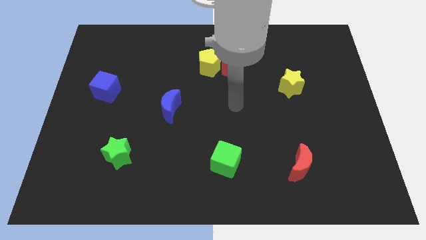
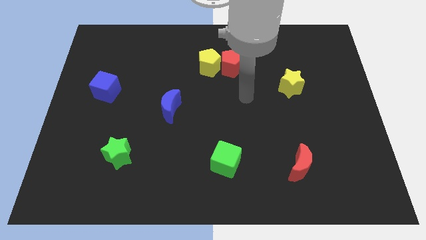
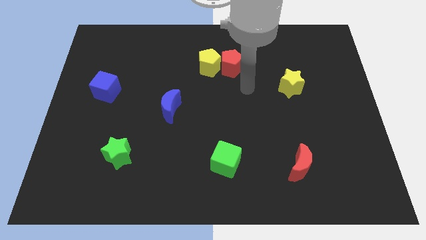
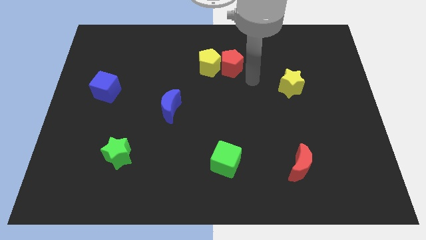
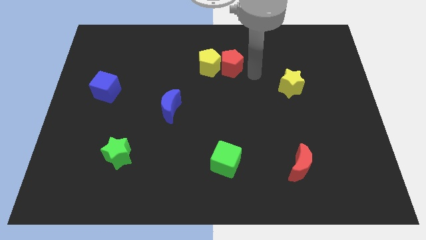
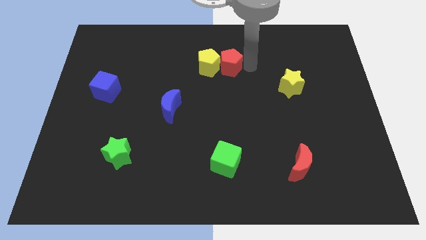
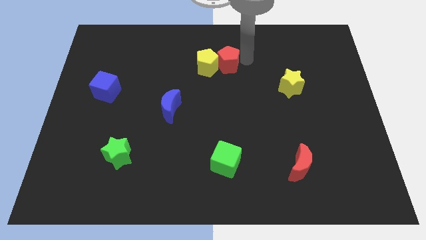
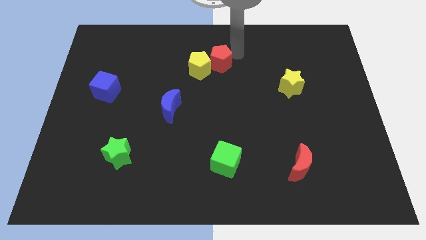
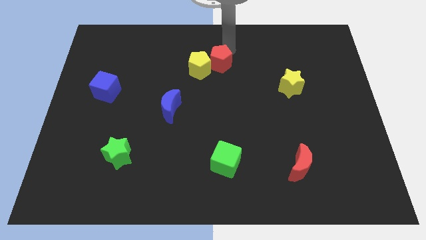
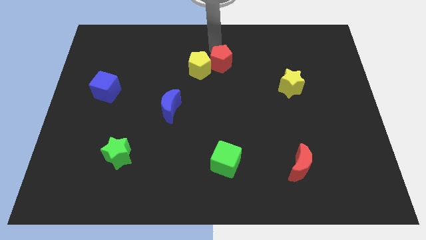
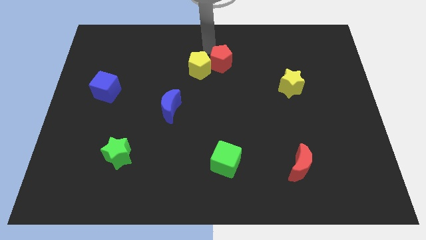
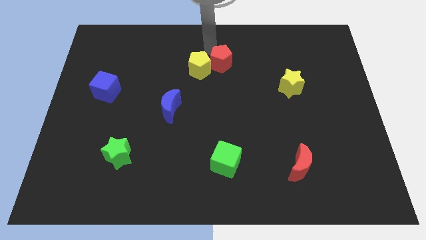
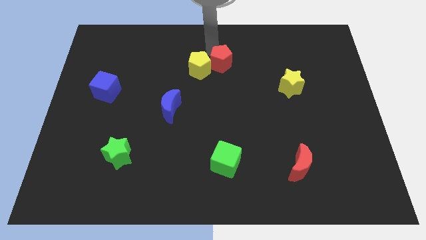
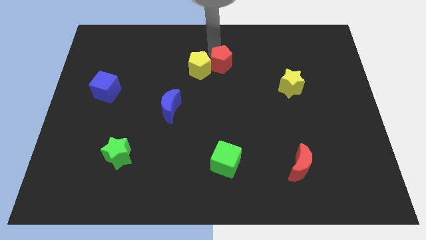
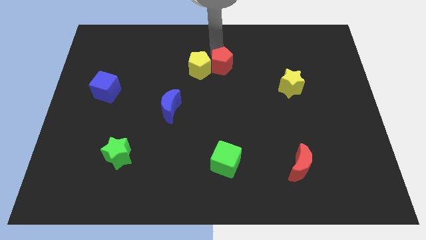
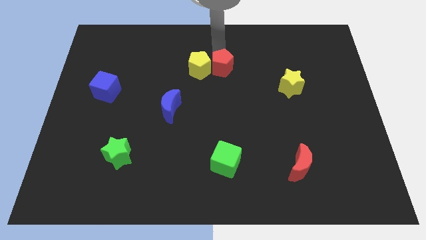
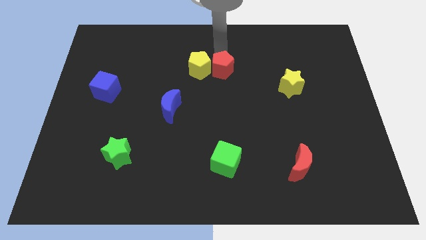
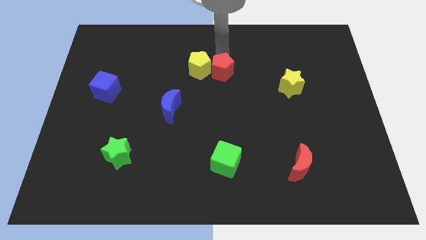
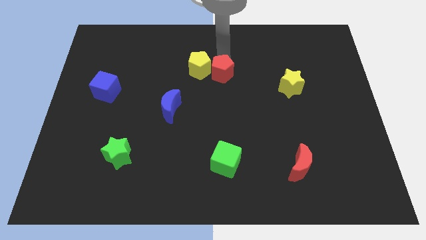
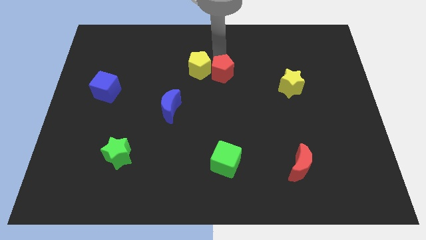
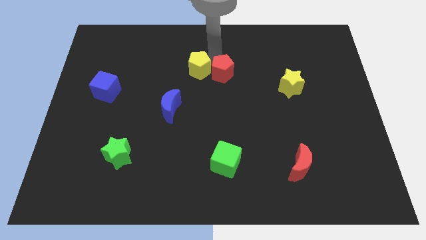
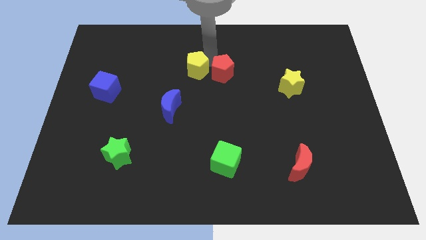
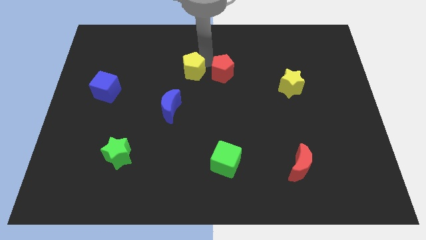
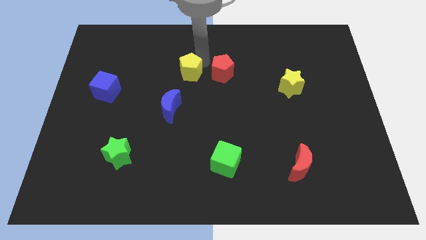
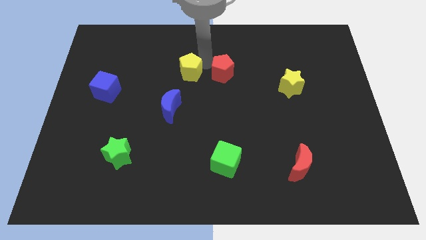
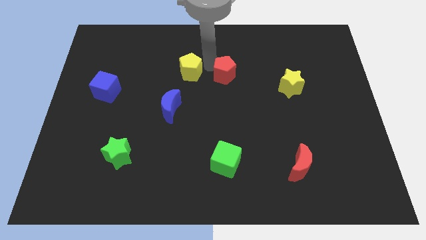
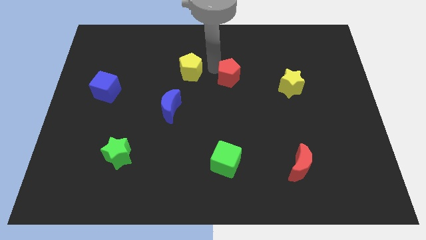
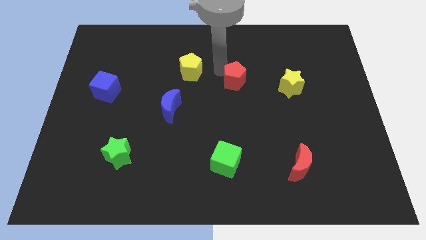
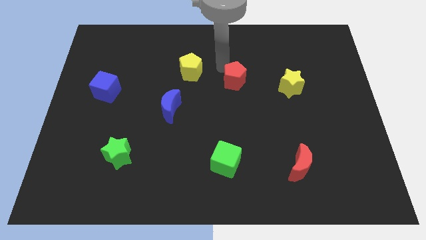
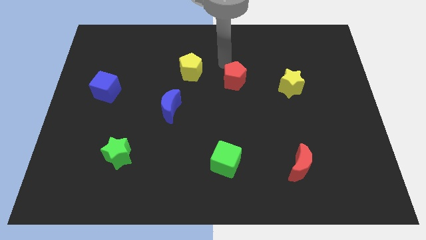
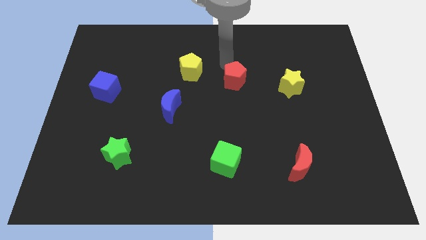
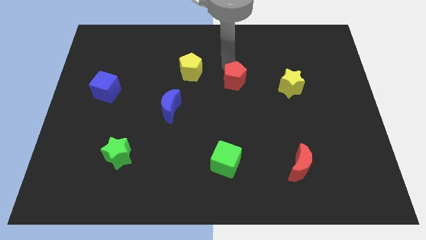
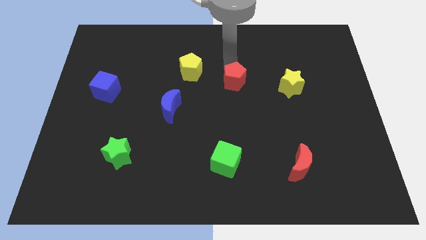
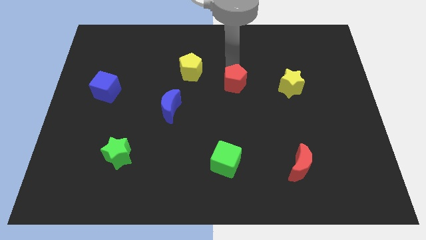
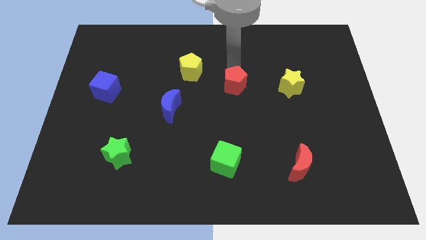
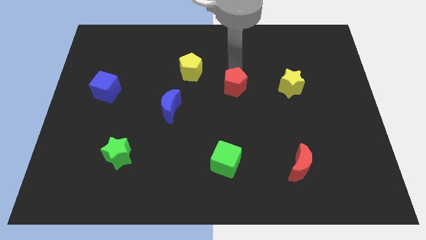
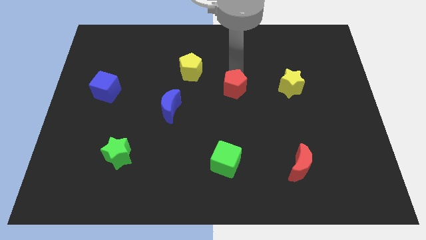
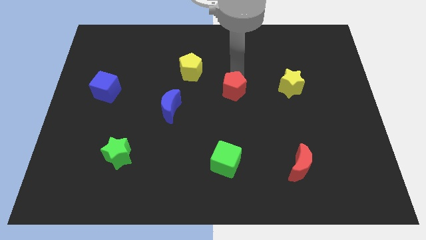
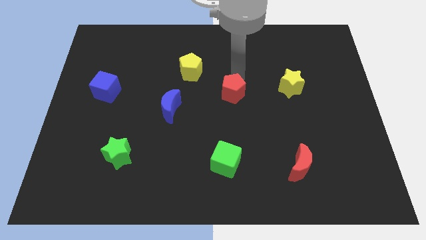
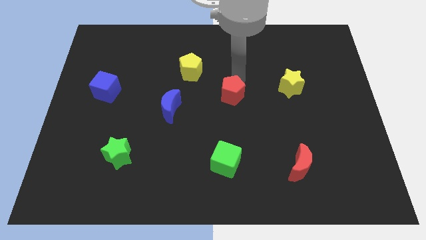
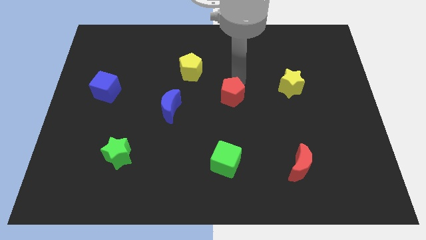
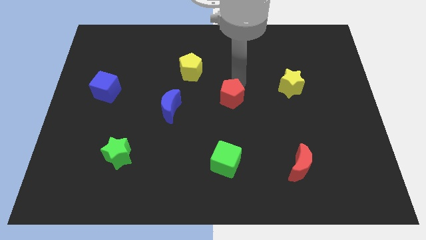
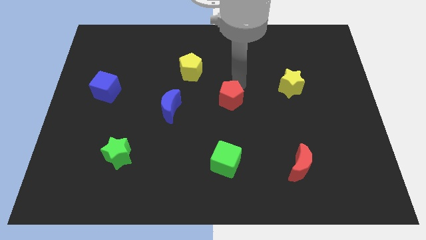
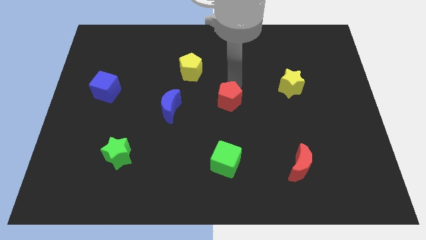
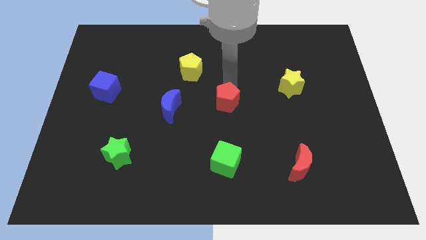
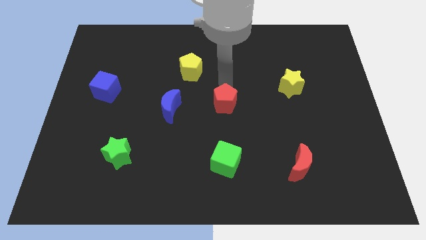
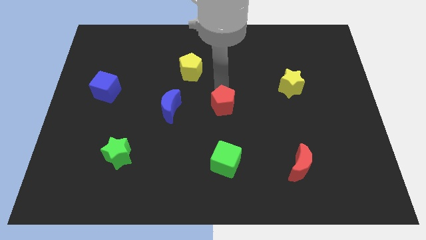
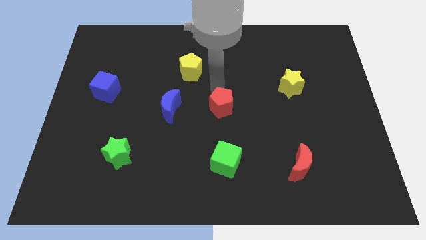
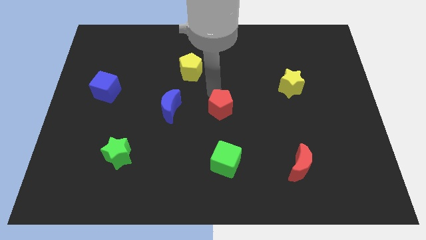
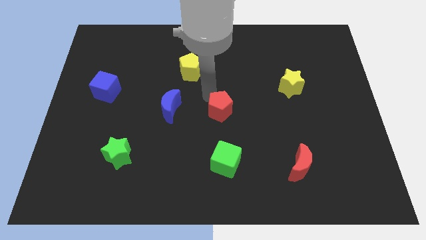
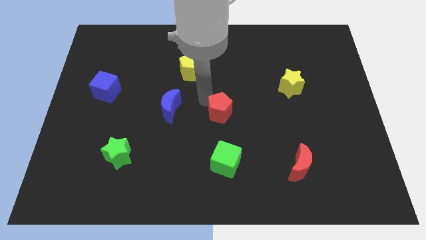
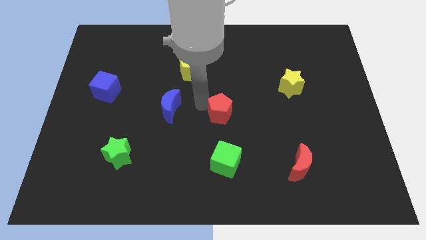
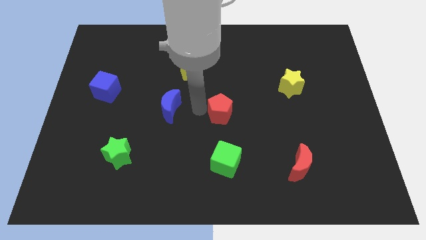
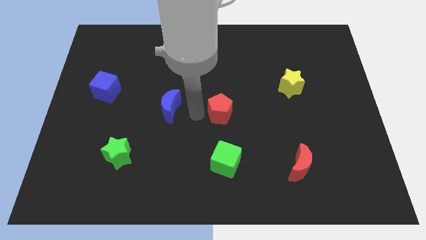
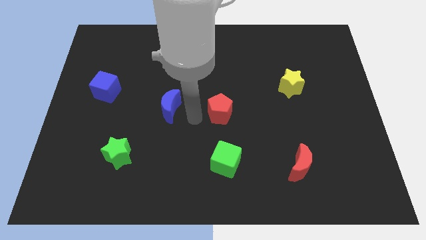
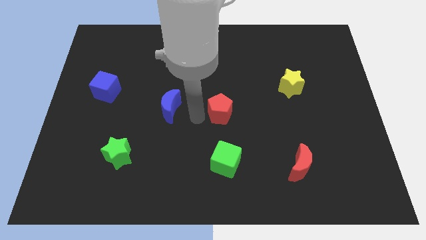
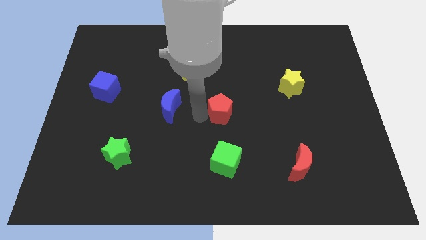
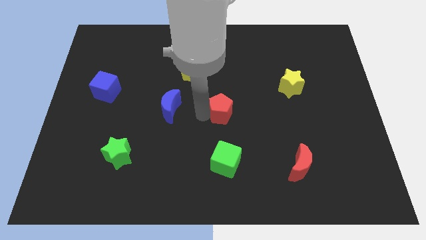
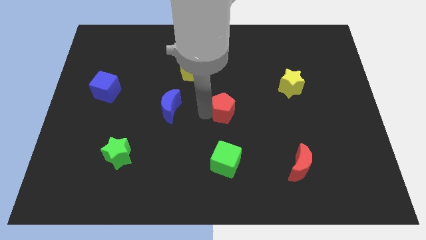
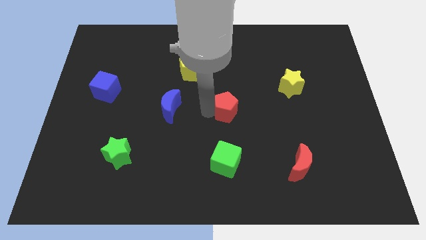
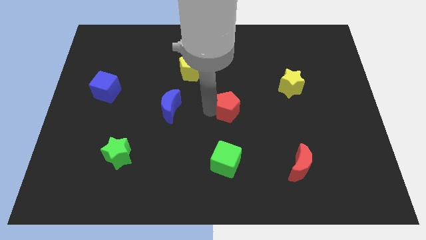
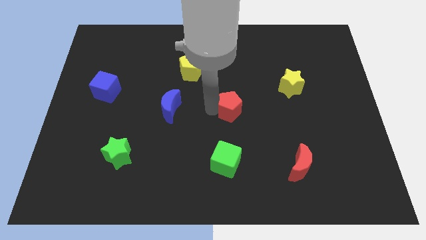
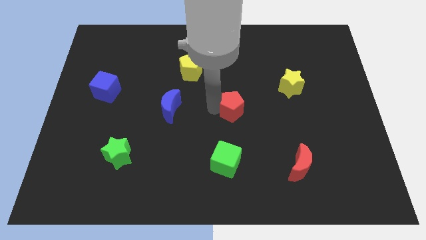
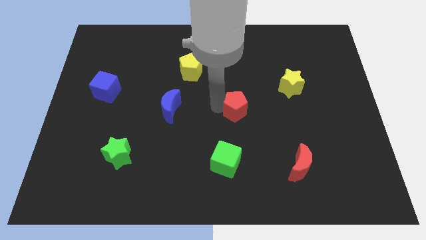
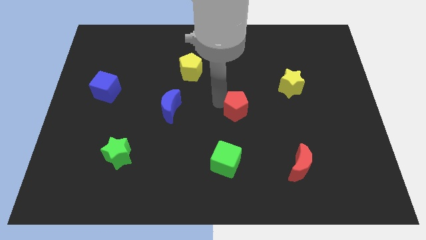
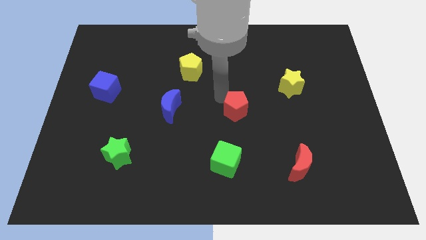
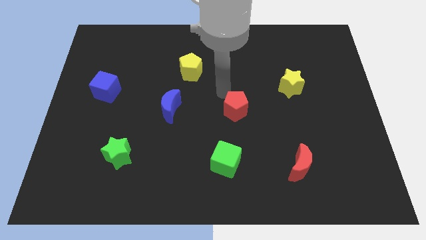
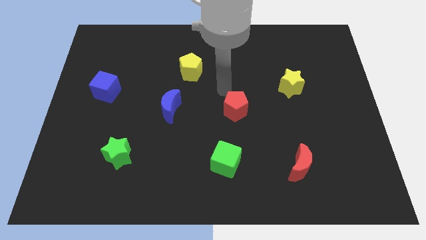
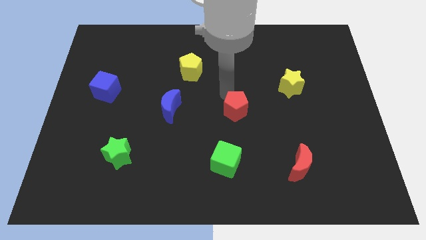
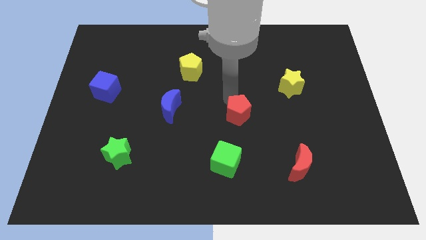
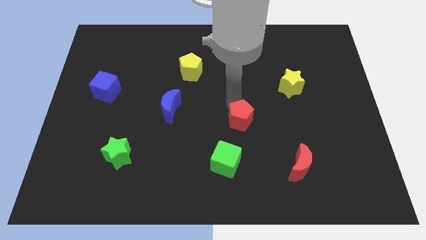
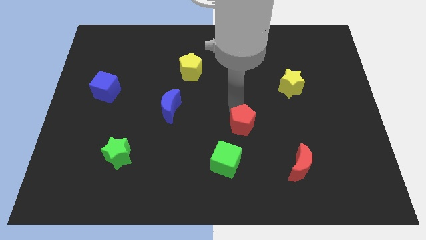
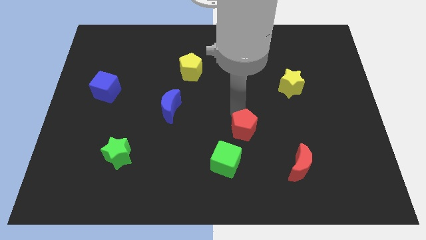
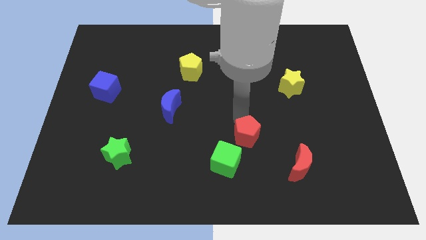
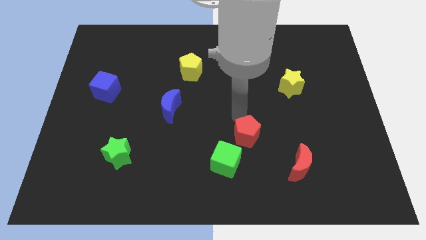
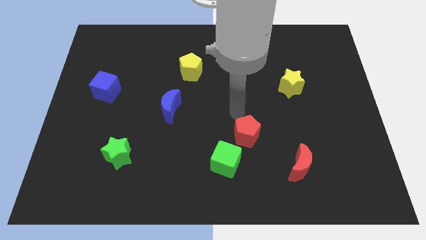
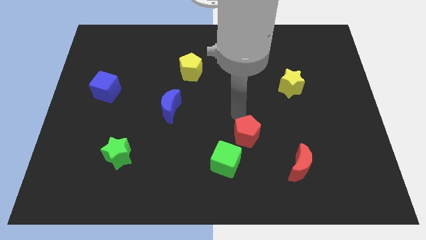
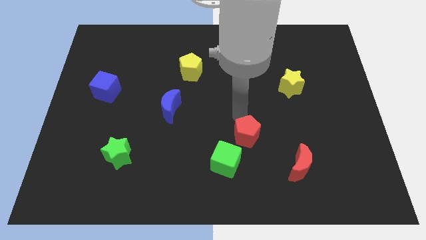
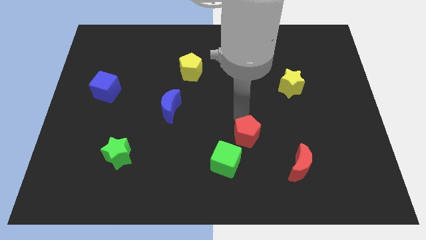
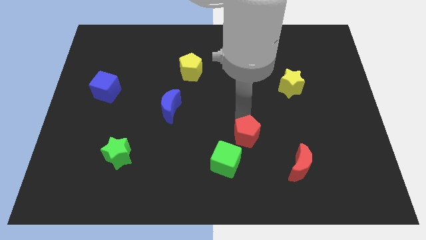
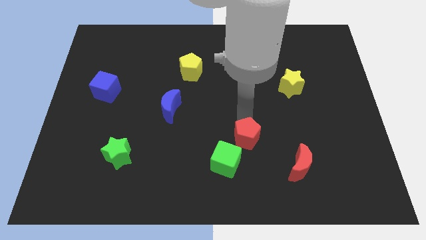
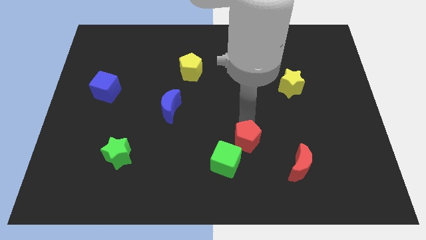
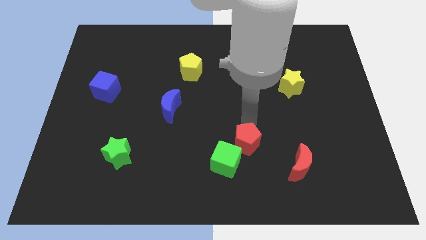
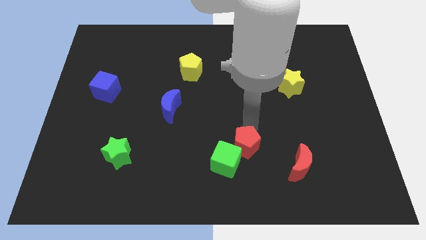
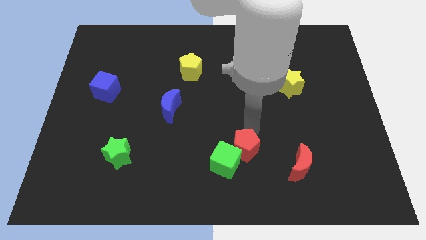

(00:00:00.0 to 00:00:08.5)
slide the red pentagon left of the red moon
